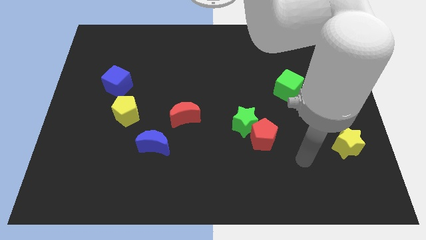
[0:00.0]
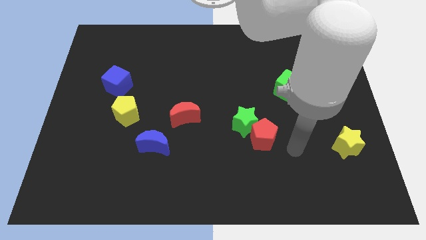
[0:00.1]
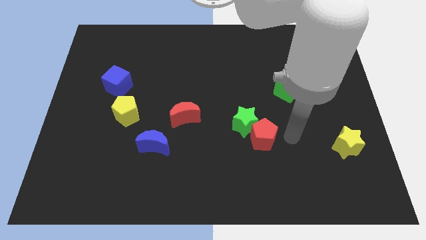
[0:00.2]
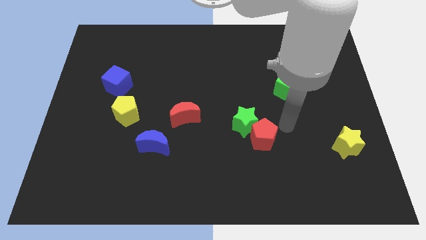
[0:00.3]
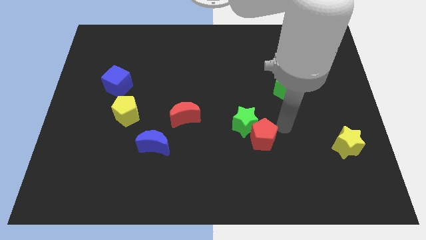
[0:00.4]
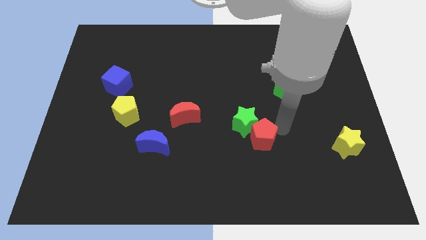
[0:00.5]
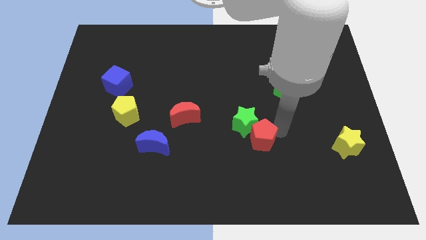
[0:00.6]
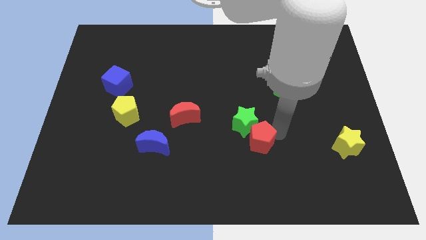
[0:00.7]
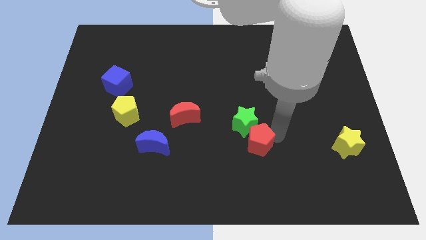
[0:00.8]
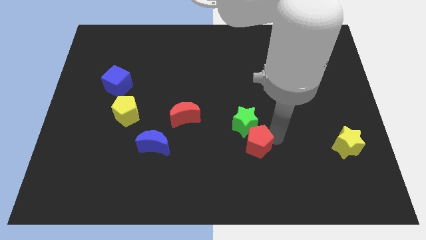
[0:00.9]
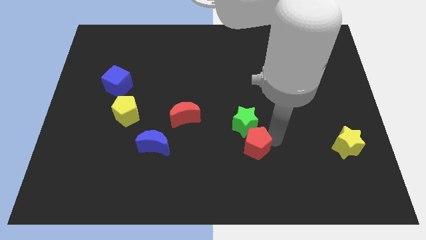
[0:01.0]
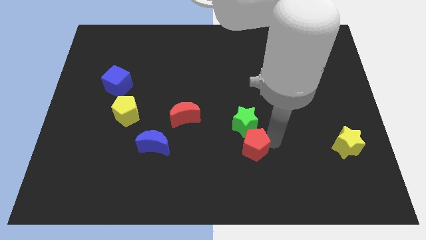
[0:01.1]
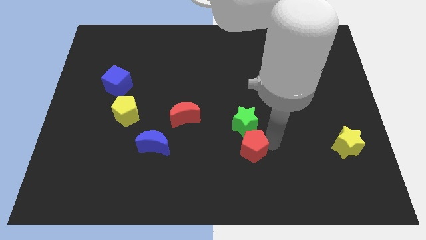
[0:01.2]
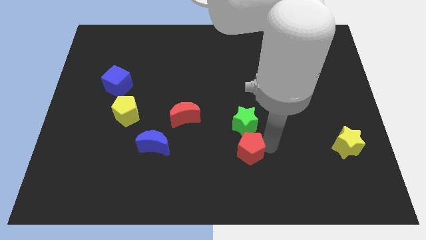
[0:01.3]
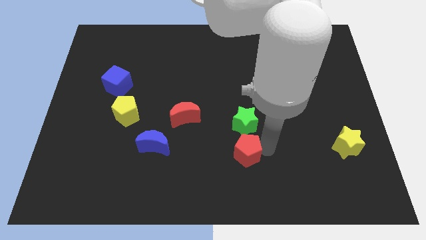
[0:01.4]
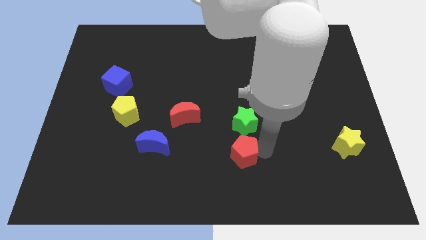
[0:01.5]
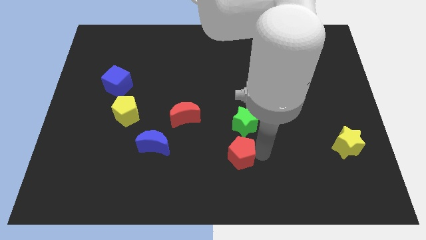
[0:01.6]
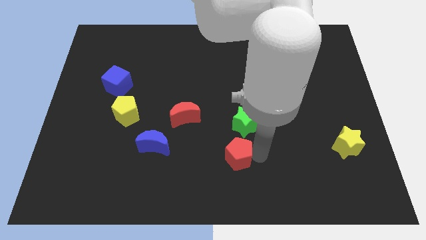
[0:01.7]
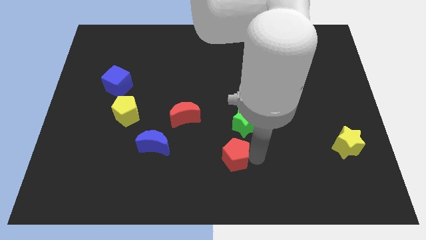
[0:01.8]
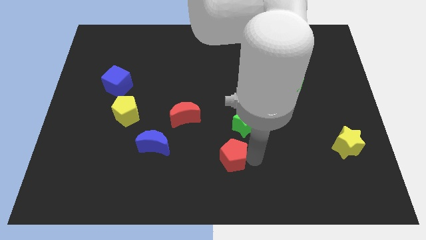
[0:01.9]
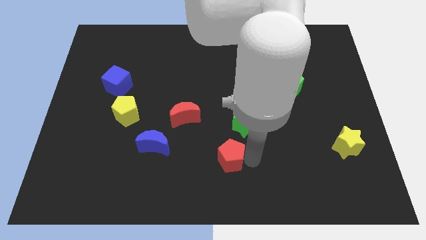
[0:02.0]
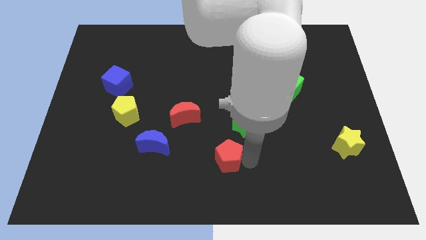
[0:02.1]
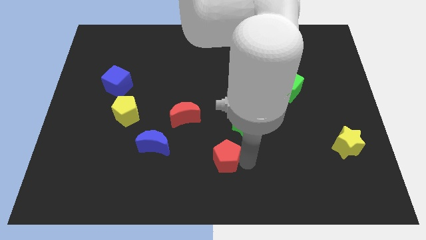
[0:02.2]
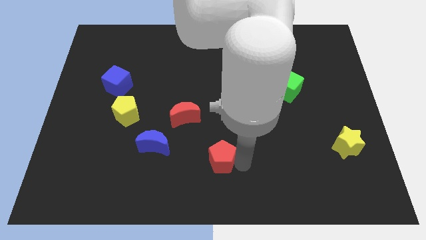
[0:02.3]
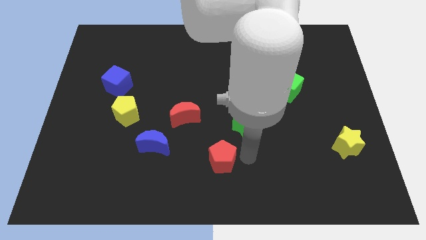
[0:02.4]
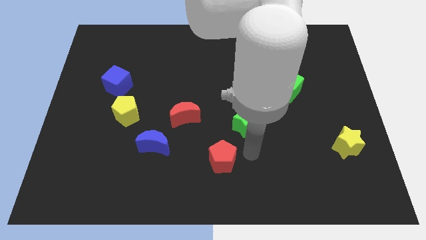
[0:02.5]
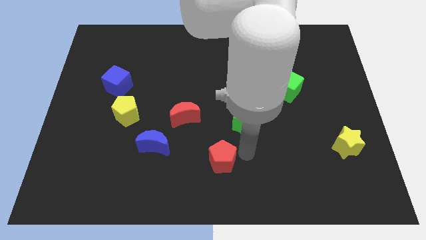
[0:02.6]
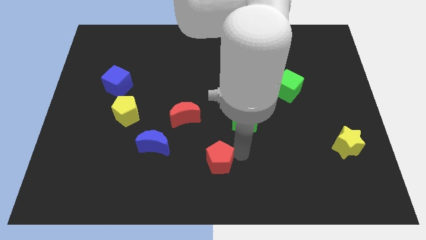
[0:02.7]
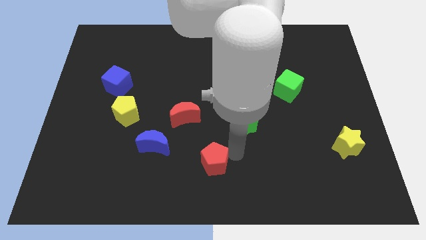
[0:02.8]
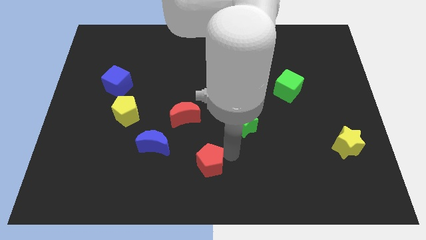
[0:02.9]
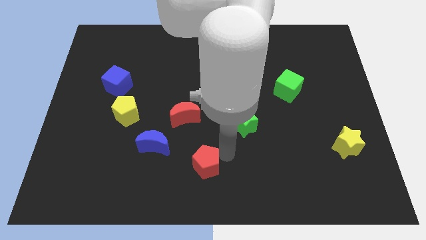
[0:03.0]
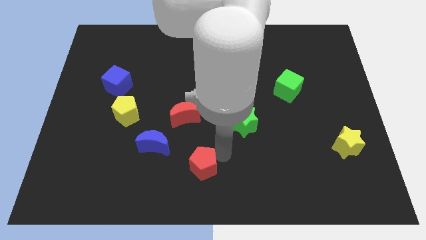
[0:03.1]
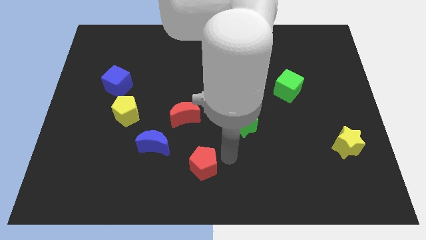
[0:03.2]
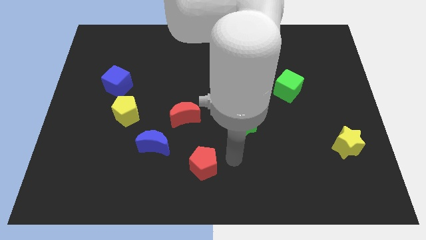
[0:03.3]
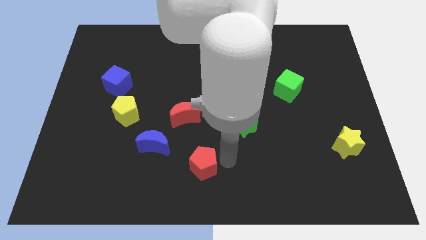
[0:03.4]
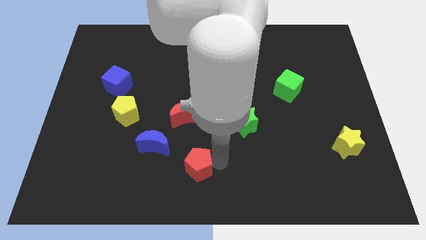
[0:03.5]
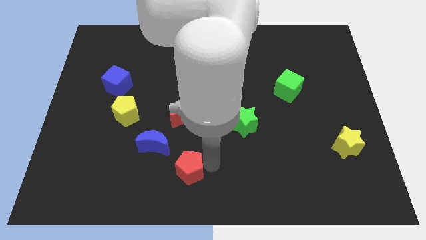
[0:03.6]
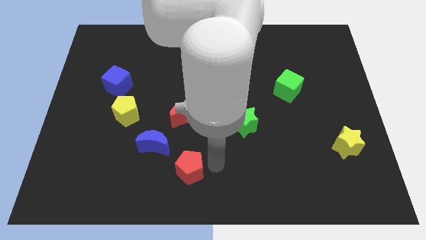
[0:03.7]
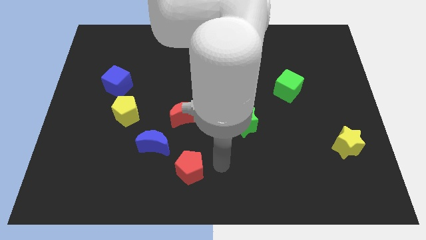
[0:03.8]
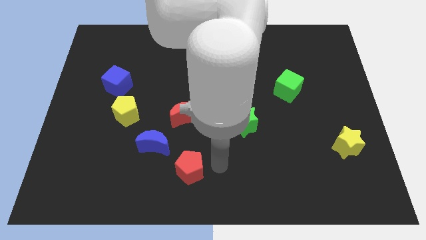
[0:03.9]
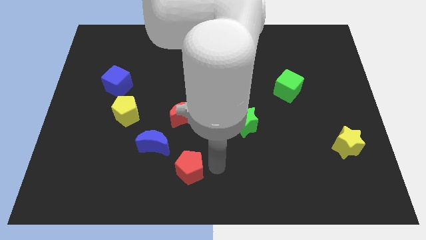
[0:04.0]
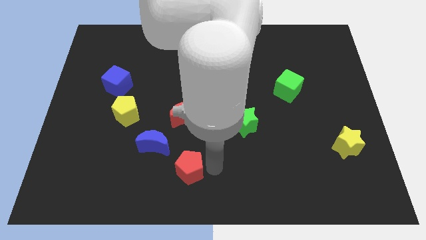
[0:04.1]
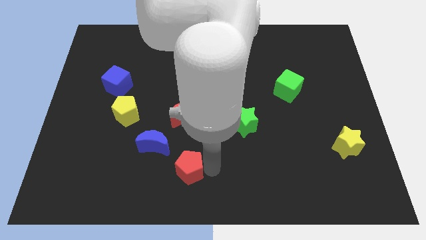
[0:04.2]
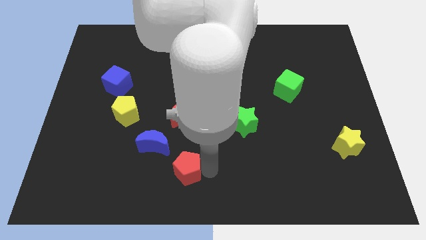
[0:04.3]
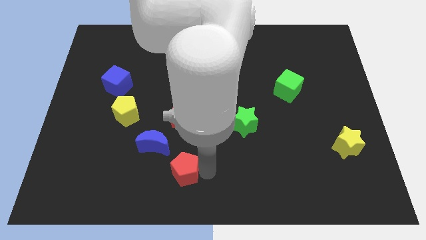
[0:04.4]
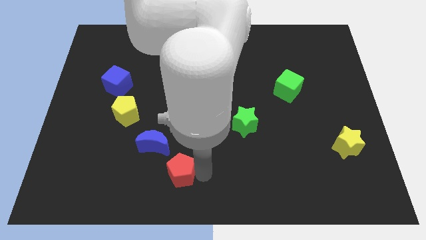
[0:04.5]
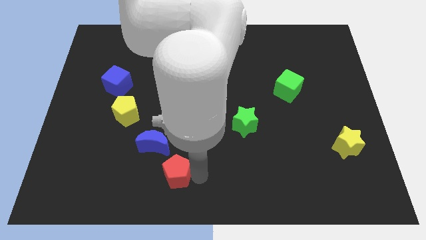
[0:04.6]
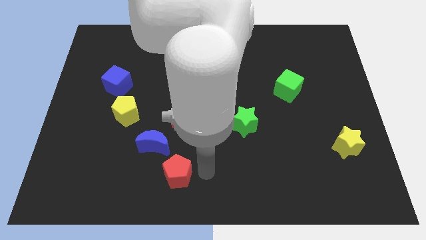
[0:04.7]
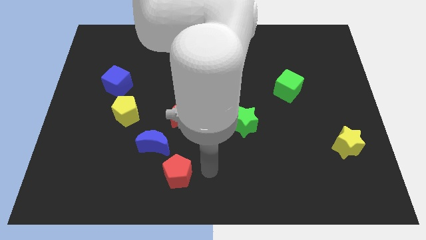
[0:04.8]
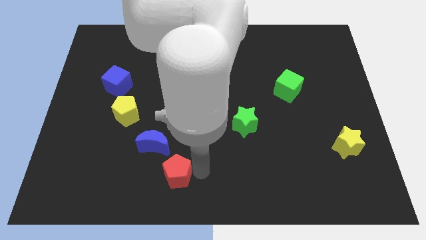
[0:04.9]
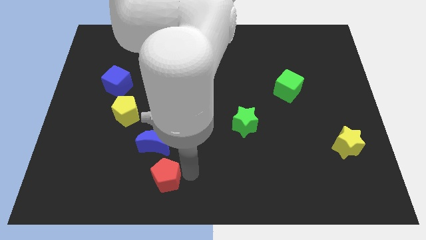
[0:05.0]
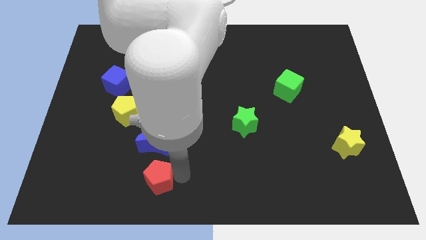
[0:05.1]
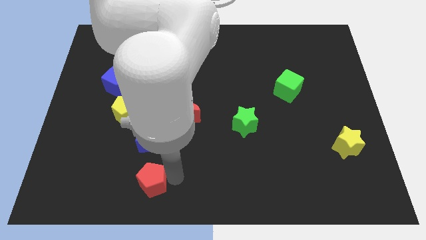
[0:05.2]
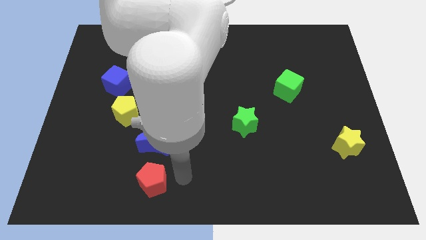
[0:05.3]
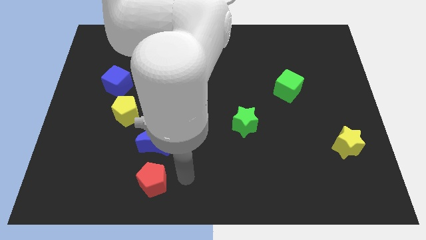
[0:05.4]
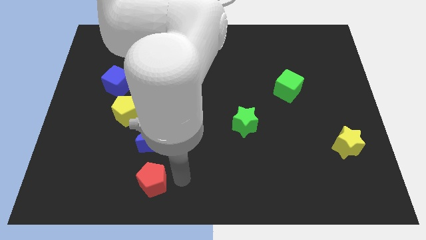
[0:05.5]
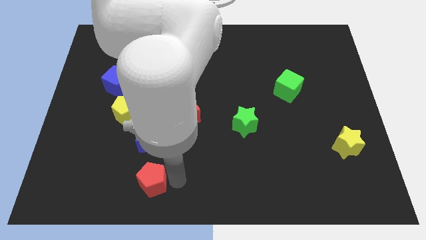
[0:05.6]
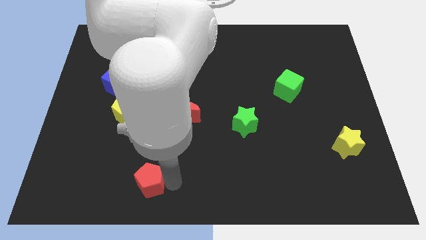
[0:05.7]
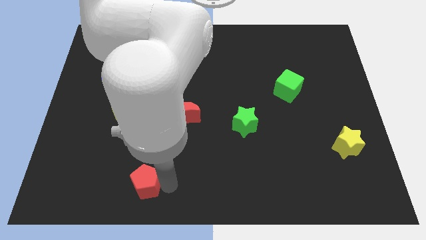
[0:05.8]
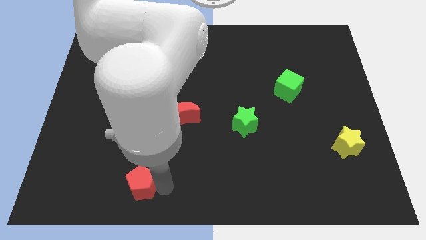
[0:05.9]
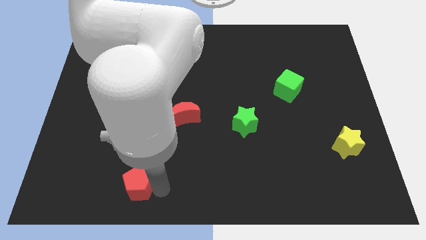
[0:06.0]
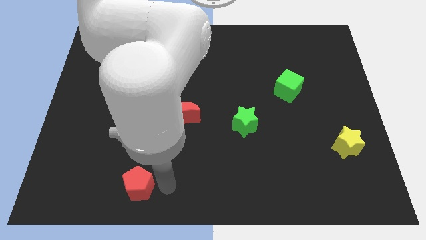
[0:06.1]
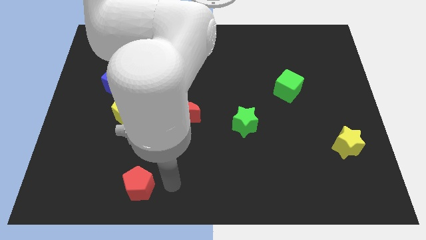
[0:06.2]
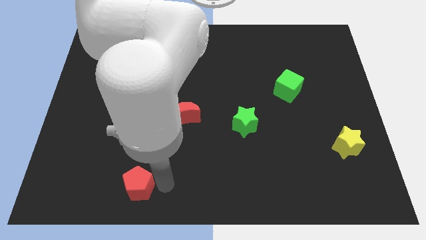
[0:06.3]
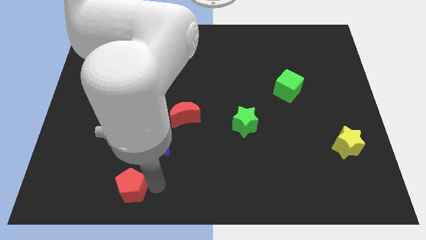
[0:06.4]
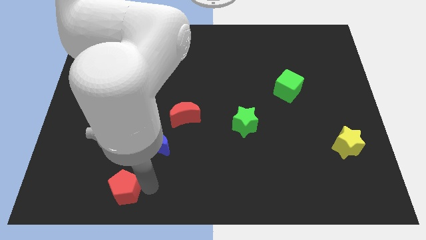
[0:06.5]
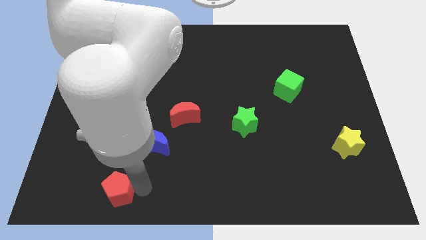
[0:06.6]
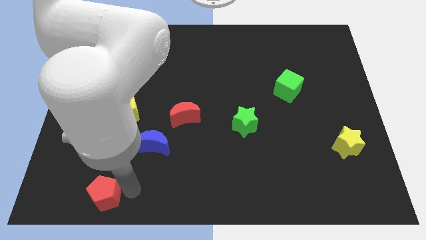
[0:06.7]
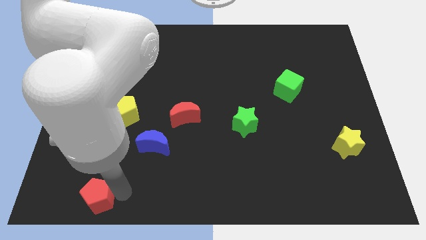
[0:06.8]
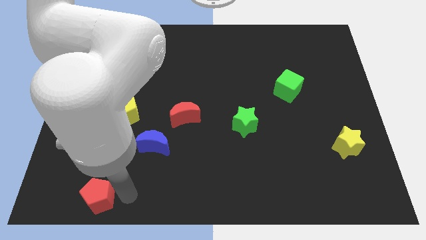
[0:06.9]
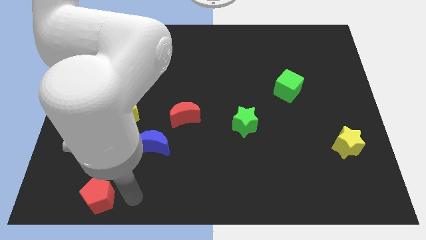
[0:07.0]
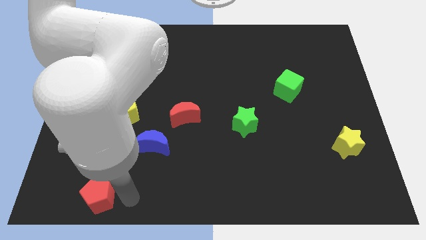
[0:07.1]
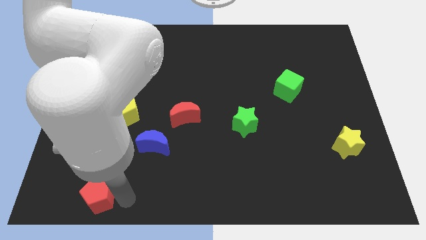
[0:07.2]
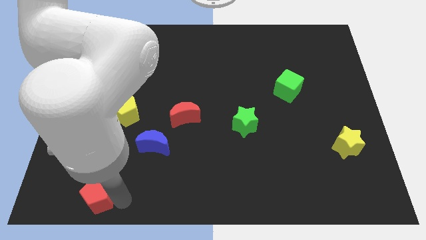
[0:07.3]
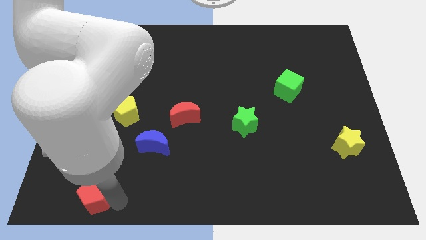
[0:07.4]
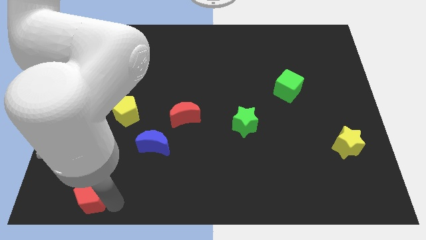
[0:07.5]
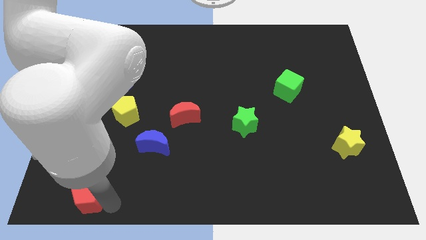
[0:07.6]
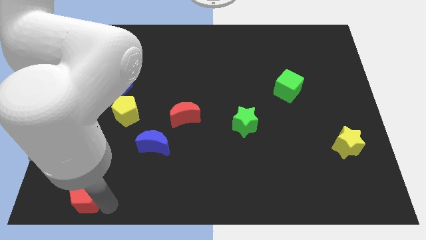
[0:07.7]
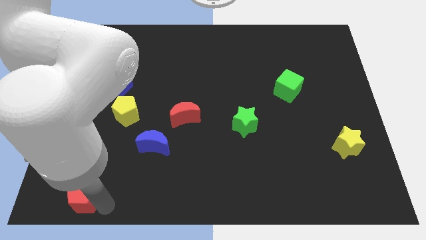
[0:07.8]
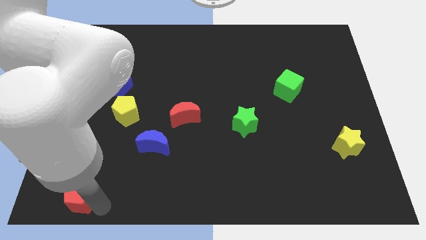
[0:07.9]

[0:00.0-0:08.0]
push the red pentagon to the bottom left
